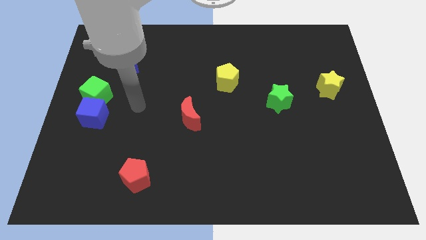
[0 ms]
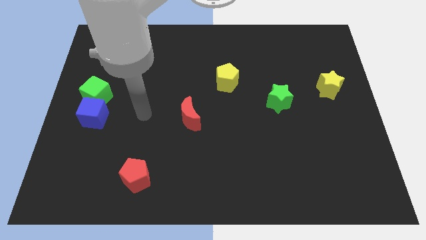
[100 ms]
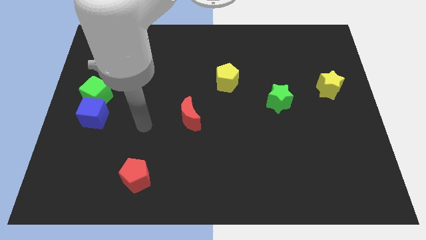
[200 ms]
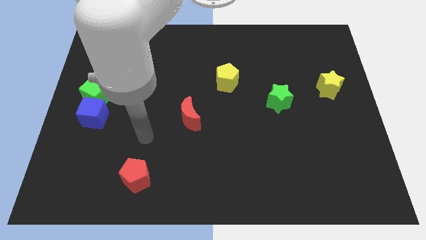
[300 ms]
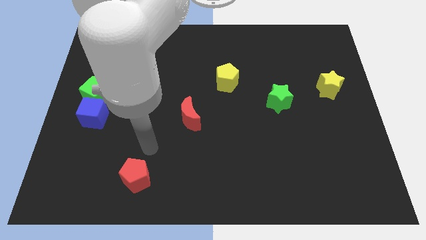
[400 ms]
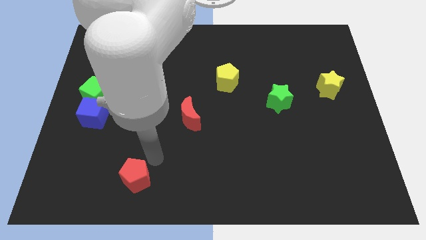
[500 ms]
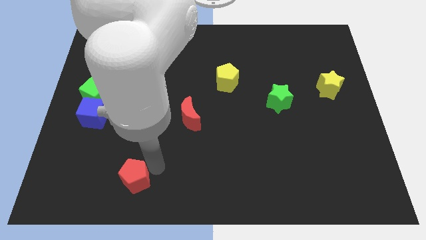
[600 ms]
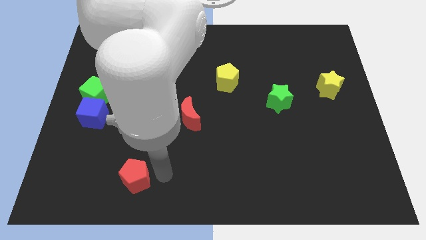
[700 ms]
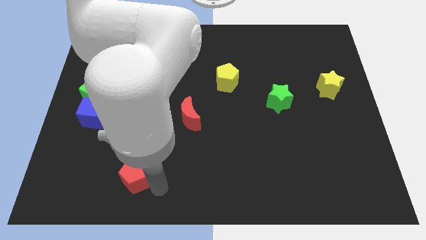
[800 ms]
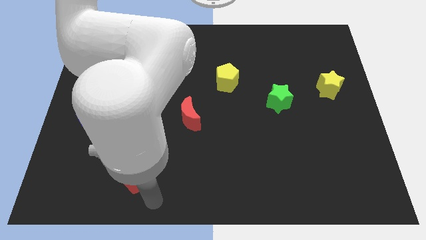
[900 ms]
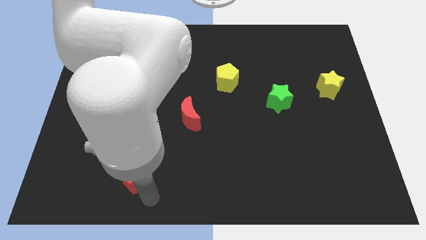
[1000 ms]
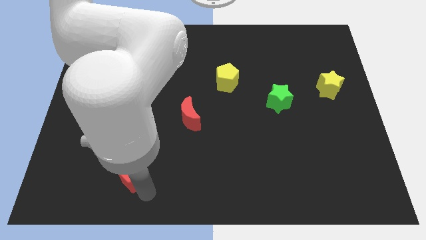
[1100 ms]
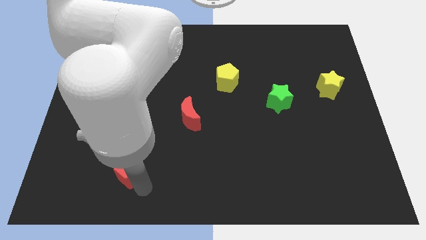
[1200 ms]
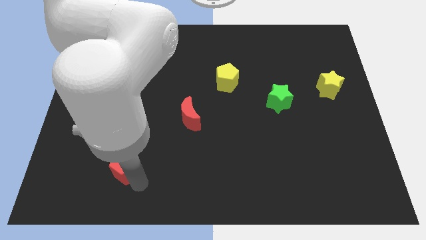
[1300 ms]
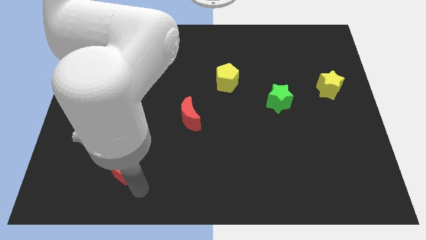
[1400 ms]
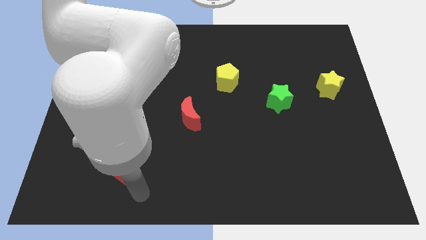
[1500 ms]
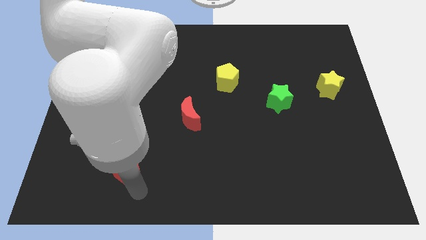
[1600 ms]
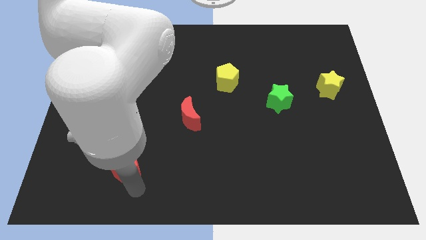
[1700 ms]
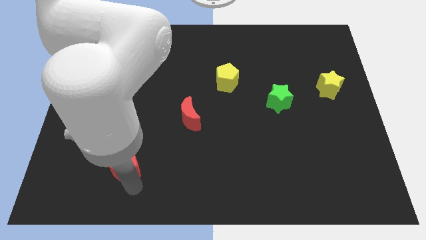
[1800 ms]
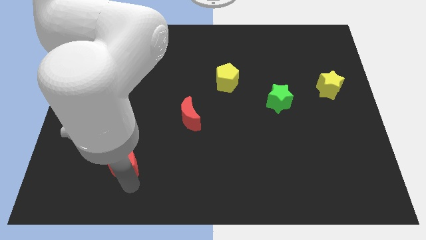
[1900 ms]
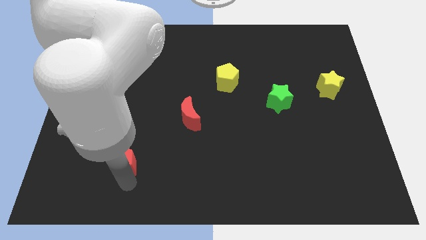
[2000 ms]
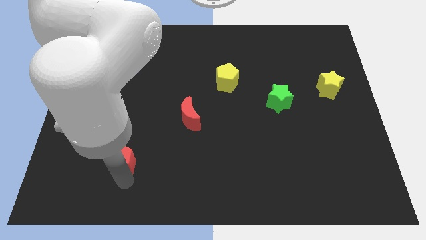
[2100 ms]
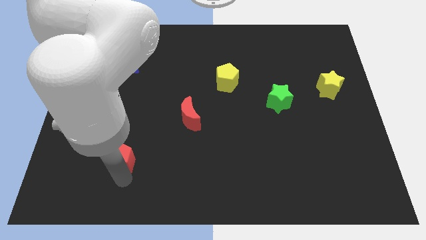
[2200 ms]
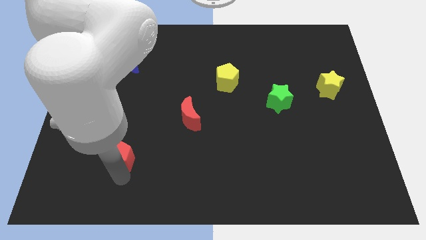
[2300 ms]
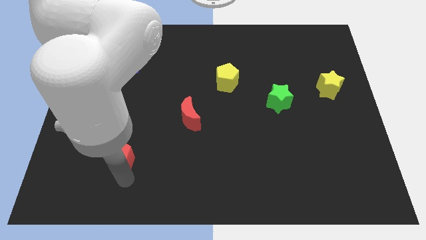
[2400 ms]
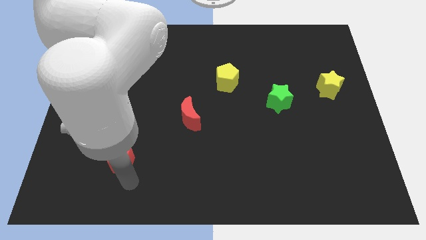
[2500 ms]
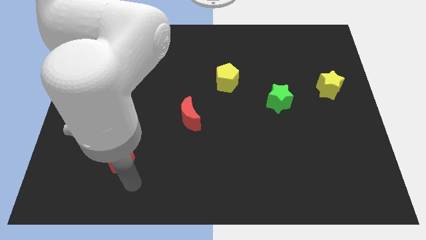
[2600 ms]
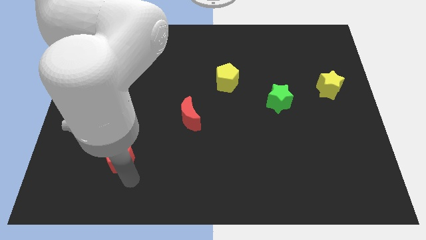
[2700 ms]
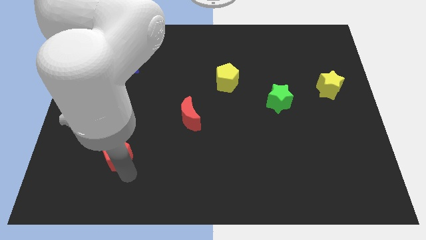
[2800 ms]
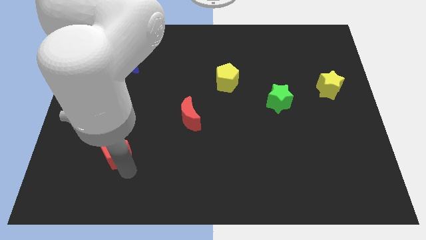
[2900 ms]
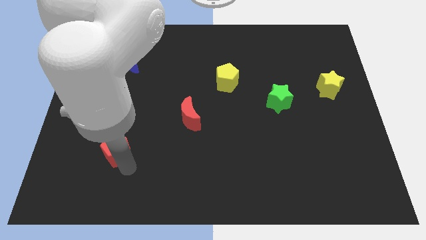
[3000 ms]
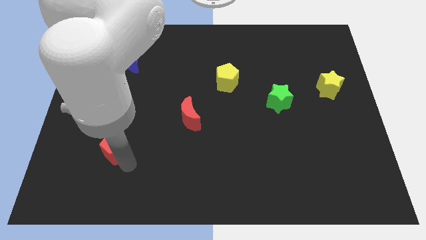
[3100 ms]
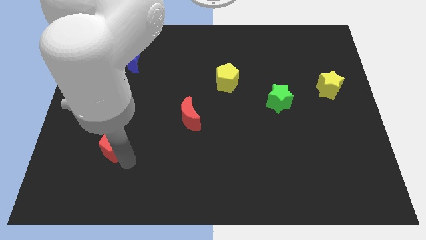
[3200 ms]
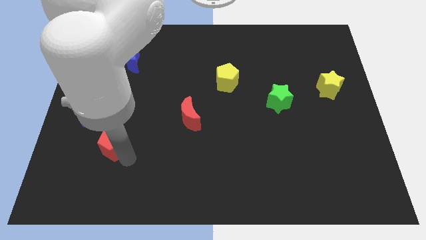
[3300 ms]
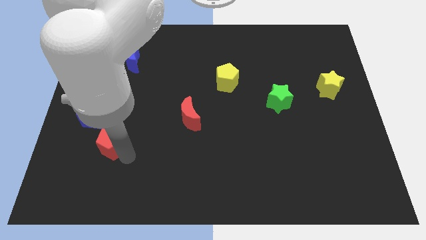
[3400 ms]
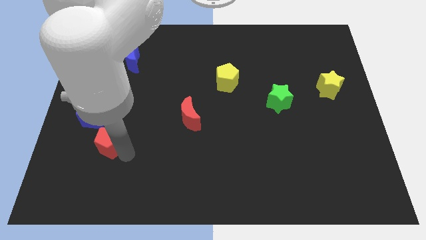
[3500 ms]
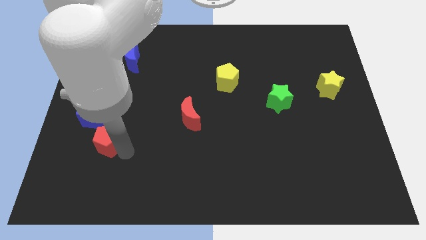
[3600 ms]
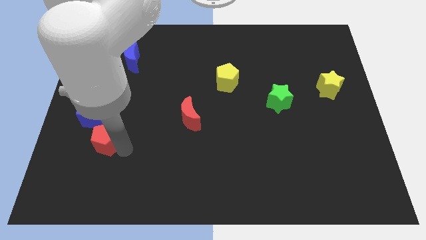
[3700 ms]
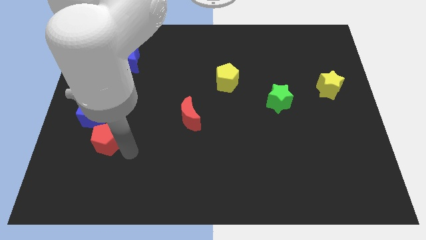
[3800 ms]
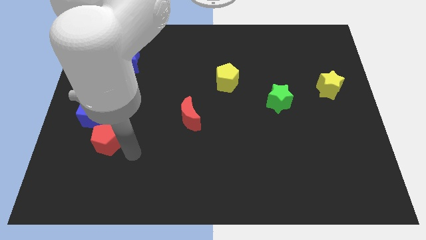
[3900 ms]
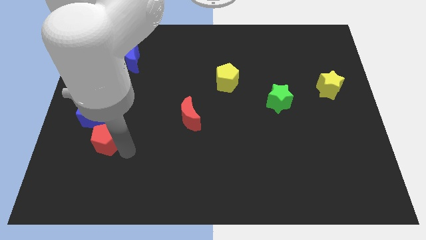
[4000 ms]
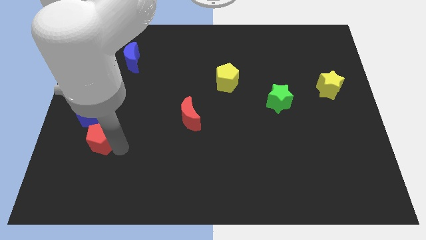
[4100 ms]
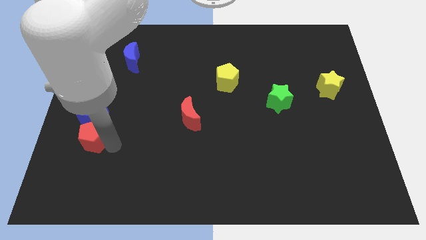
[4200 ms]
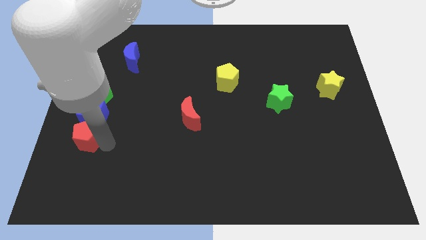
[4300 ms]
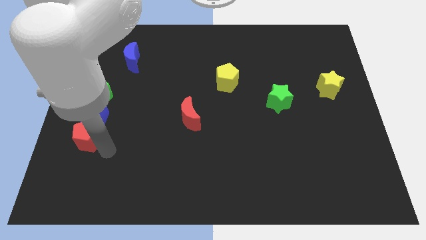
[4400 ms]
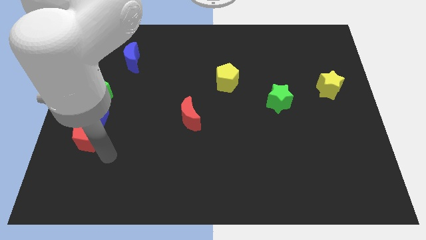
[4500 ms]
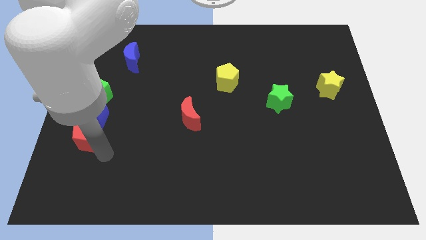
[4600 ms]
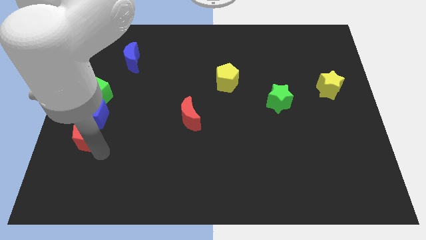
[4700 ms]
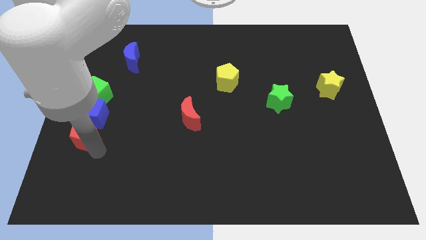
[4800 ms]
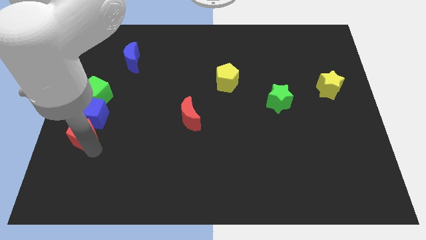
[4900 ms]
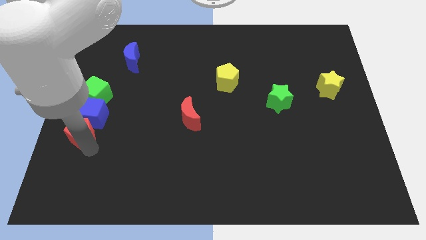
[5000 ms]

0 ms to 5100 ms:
put the red pentagon to the left side of the board

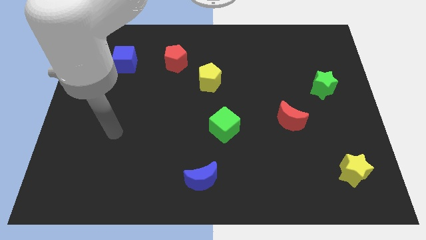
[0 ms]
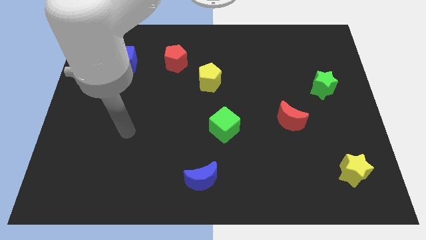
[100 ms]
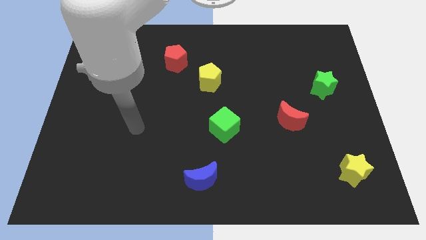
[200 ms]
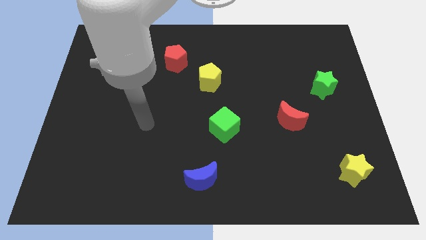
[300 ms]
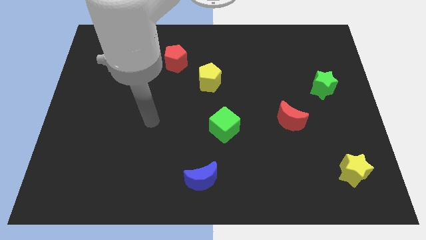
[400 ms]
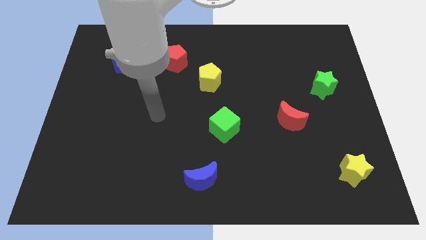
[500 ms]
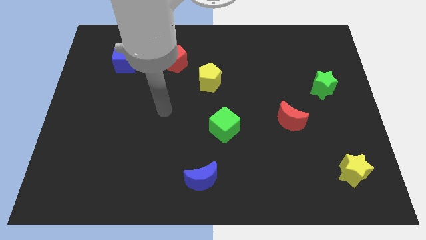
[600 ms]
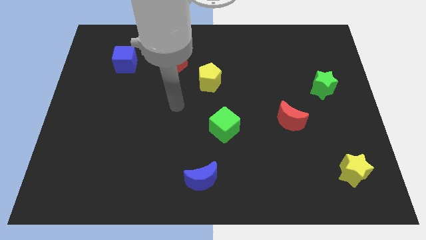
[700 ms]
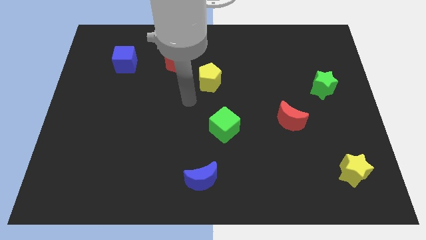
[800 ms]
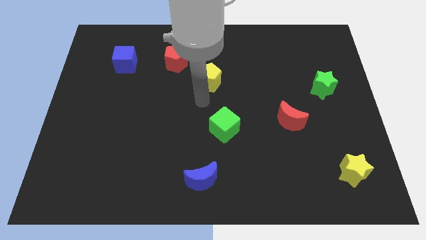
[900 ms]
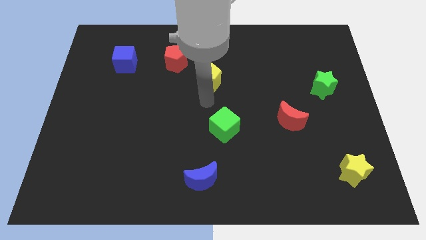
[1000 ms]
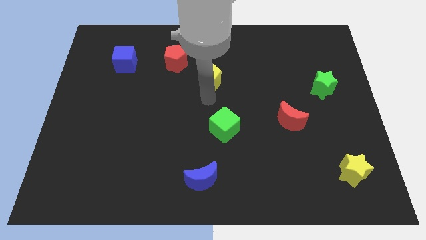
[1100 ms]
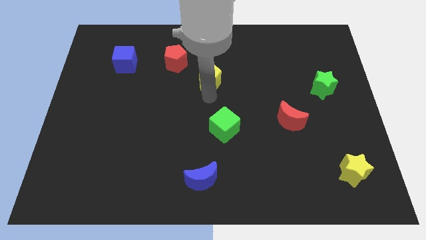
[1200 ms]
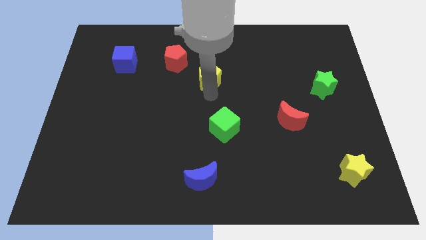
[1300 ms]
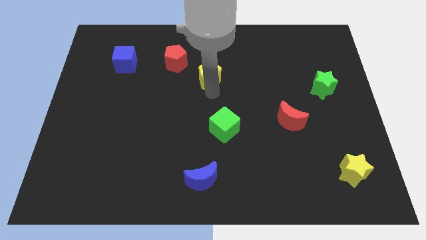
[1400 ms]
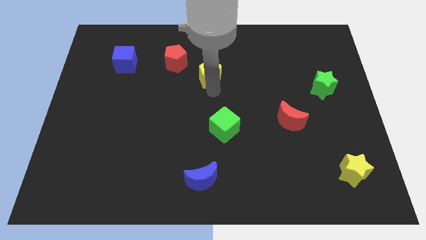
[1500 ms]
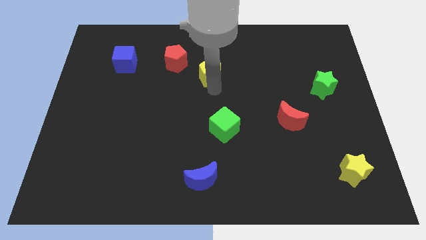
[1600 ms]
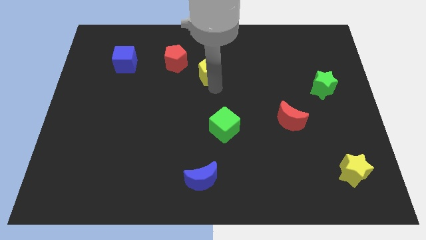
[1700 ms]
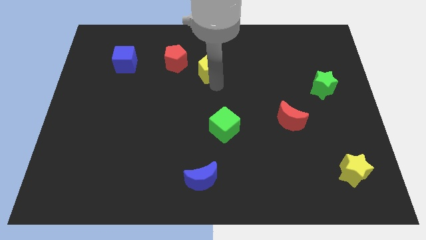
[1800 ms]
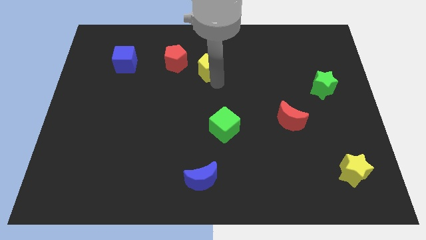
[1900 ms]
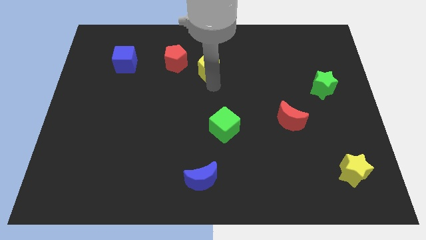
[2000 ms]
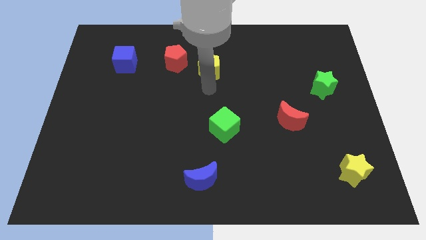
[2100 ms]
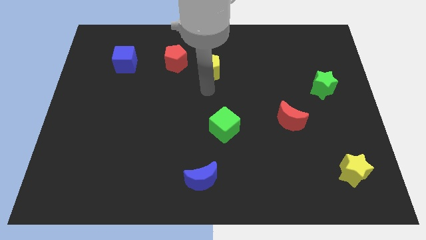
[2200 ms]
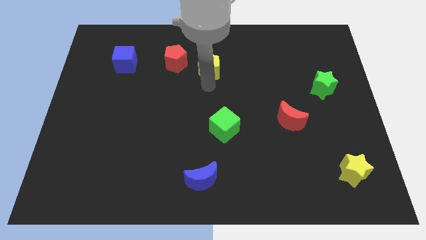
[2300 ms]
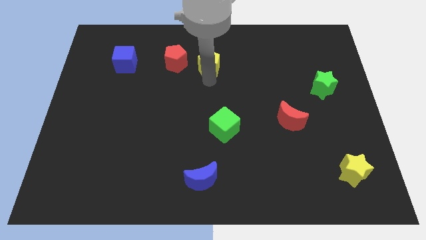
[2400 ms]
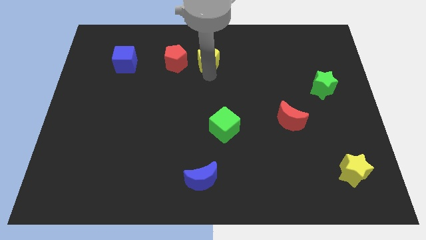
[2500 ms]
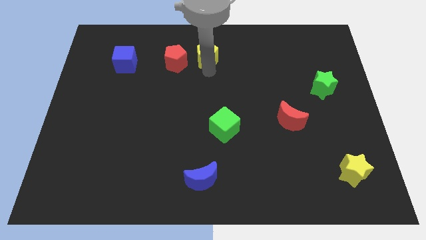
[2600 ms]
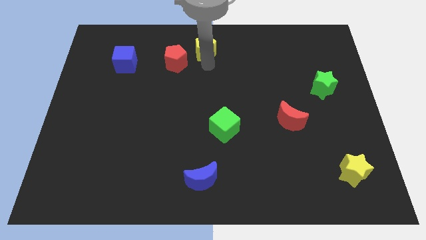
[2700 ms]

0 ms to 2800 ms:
move the yellow pentagon to the top
